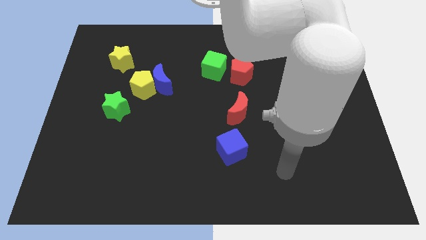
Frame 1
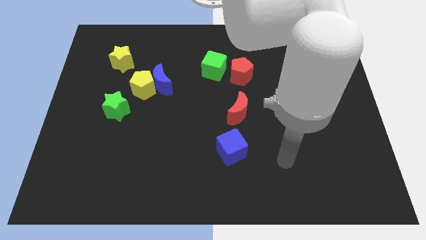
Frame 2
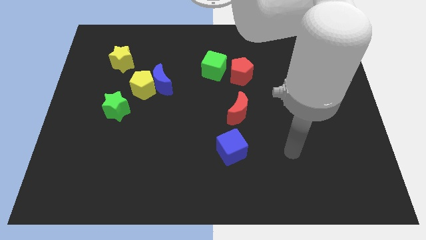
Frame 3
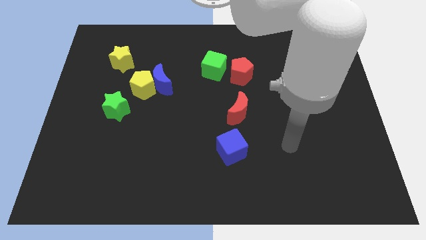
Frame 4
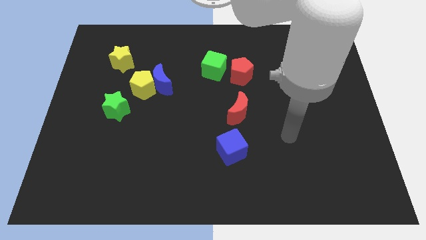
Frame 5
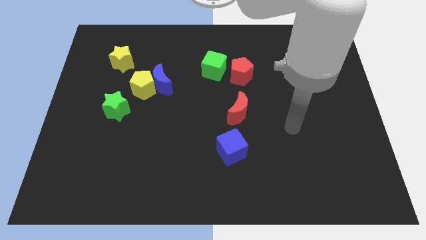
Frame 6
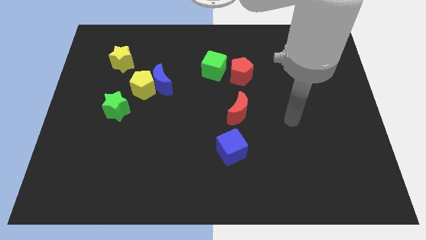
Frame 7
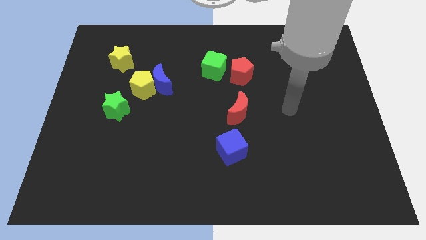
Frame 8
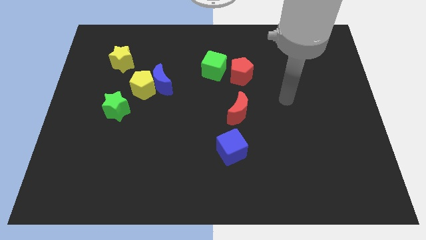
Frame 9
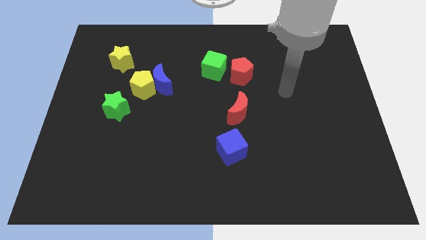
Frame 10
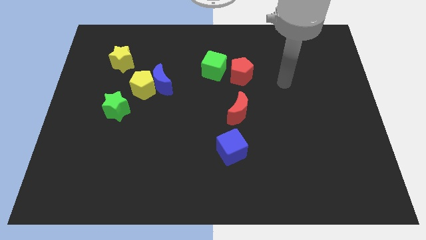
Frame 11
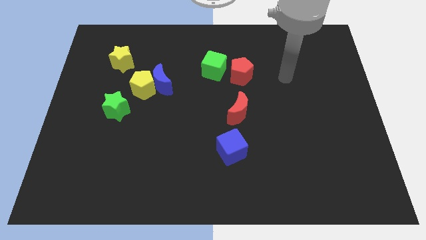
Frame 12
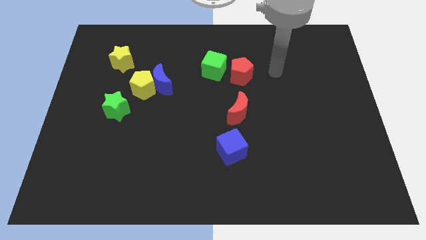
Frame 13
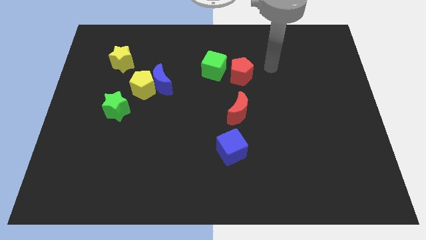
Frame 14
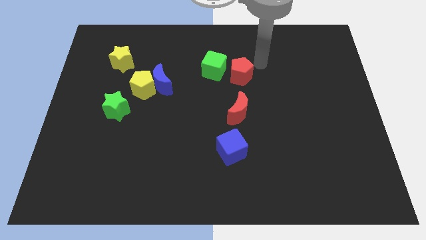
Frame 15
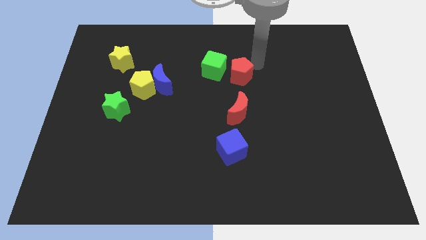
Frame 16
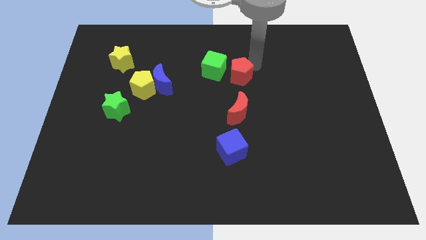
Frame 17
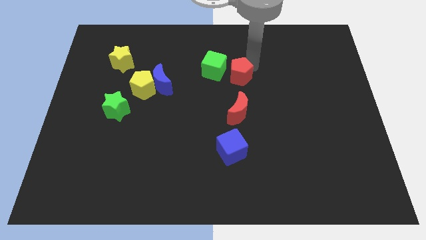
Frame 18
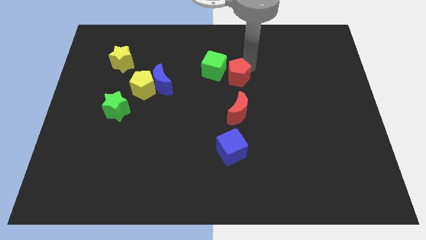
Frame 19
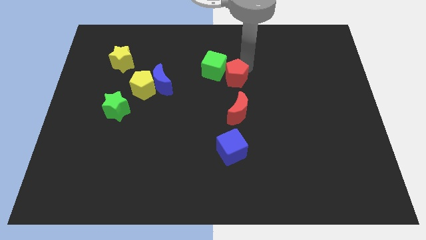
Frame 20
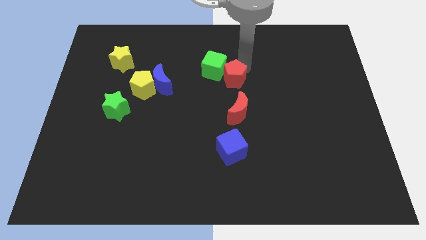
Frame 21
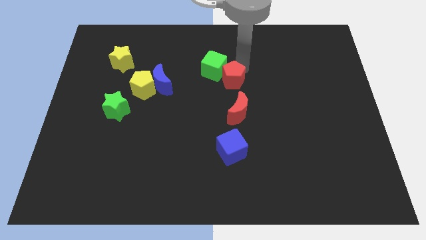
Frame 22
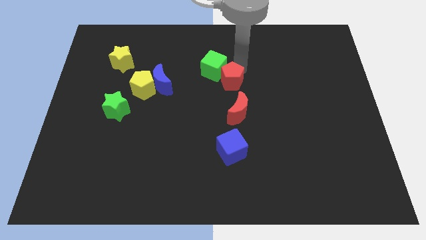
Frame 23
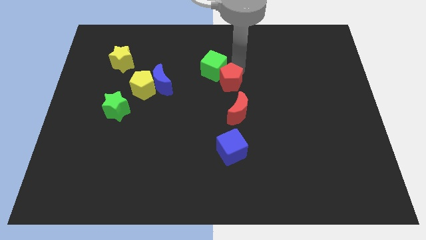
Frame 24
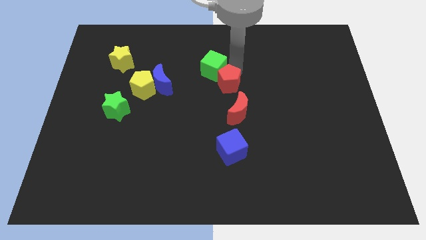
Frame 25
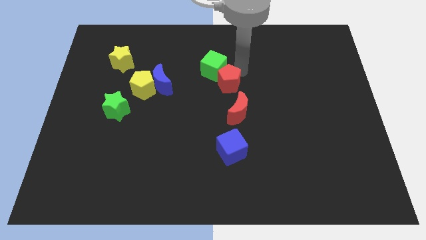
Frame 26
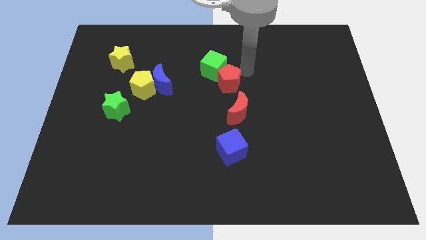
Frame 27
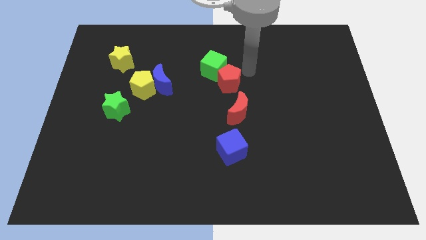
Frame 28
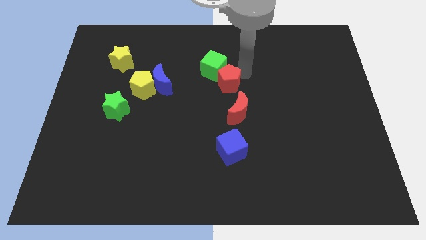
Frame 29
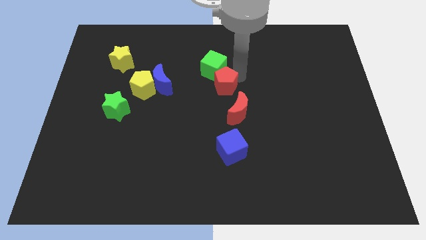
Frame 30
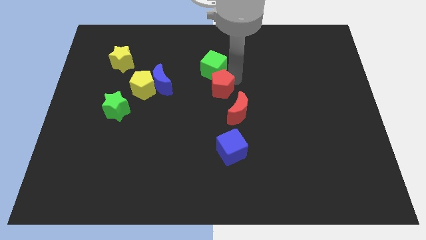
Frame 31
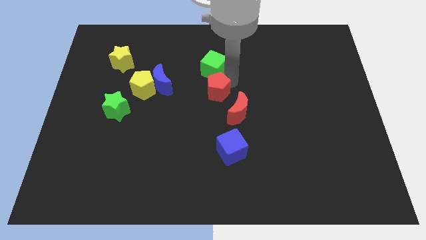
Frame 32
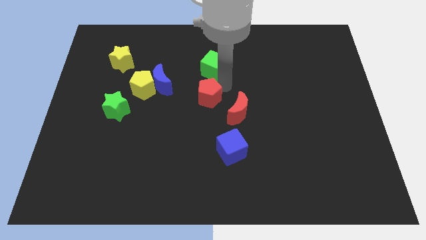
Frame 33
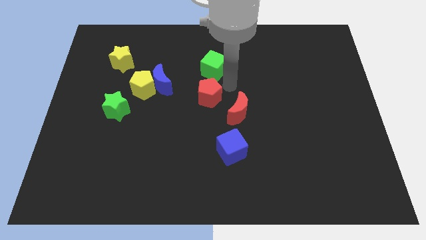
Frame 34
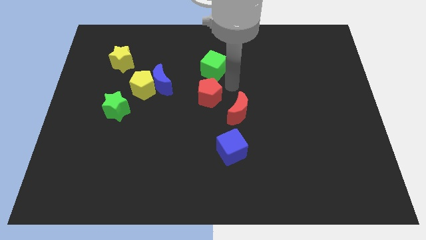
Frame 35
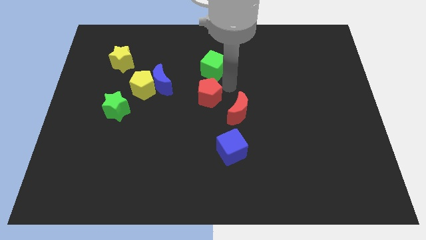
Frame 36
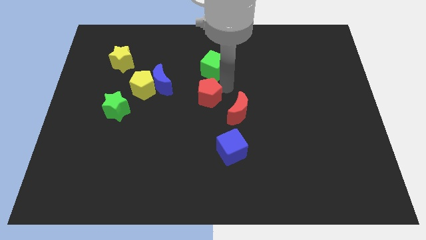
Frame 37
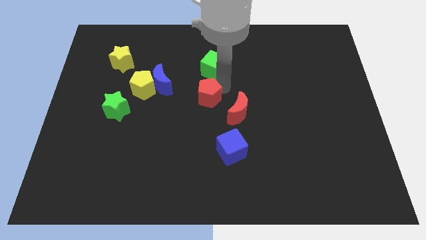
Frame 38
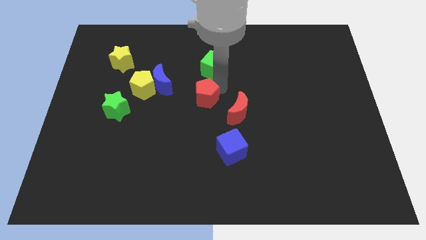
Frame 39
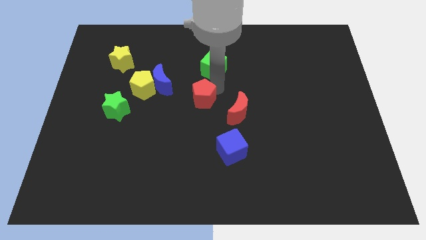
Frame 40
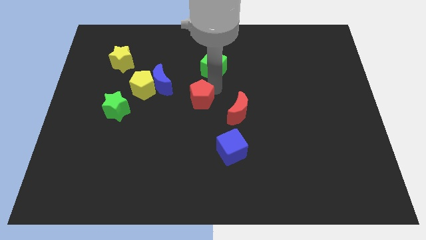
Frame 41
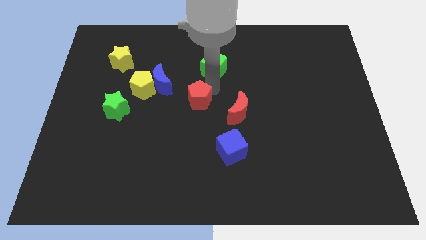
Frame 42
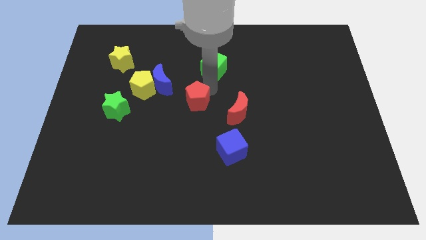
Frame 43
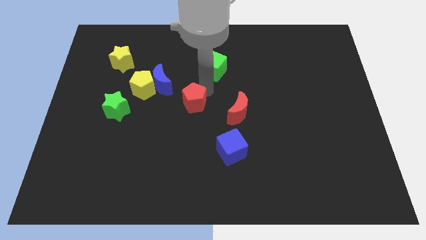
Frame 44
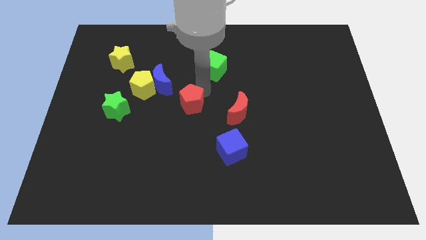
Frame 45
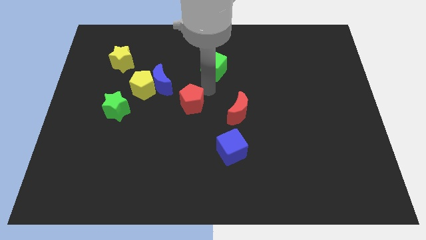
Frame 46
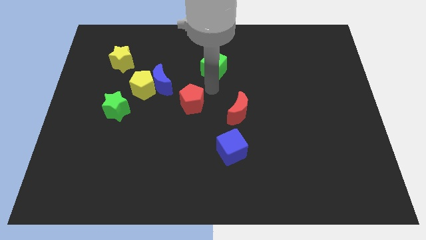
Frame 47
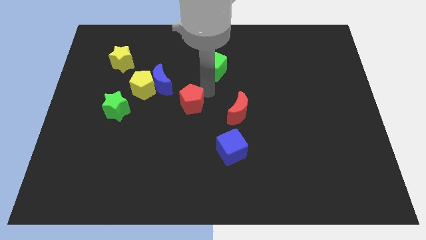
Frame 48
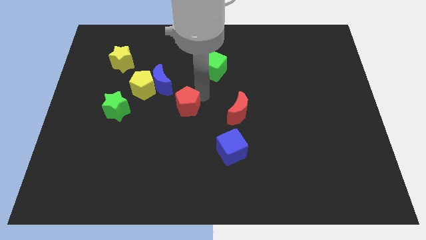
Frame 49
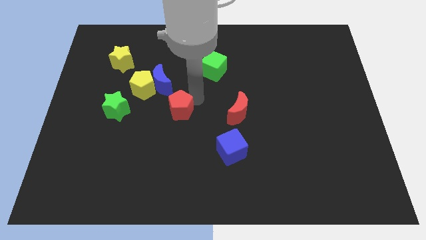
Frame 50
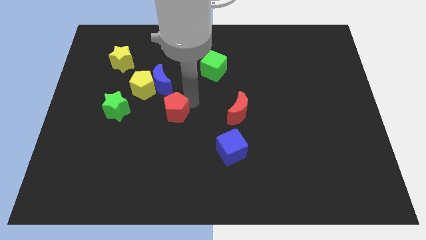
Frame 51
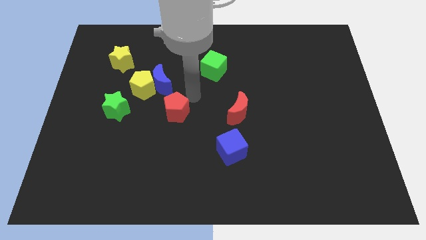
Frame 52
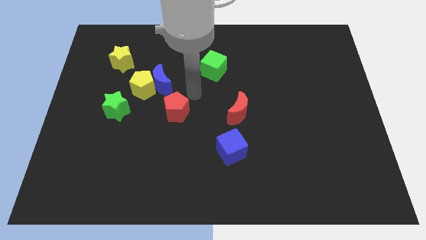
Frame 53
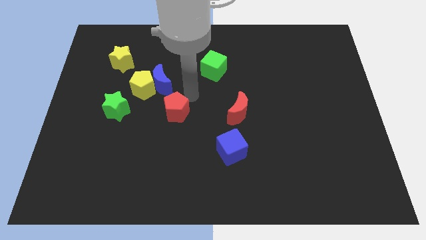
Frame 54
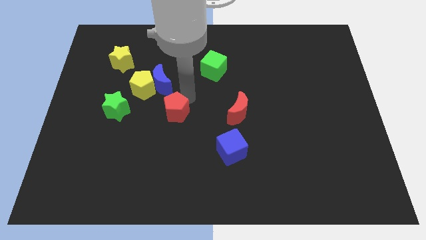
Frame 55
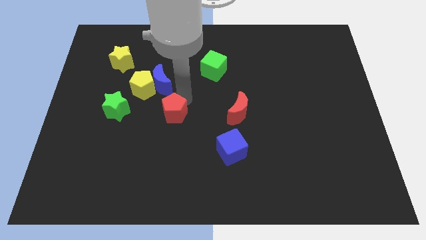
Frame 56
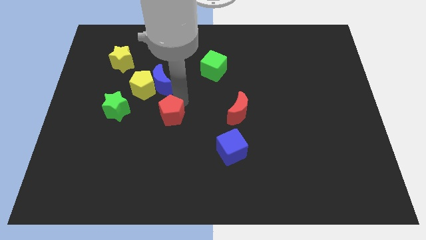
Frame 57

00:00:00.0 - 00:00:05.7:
push the red pentagon down and to the left diagonally

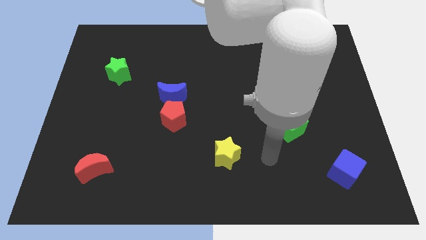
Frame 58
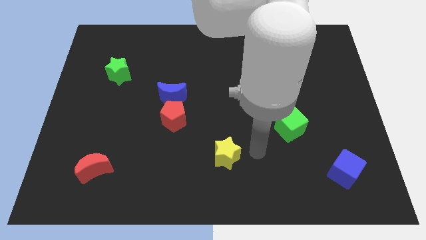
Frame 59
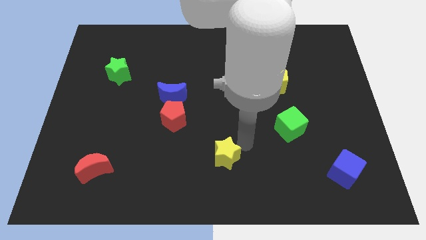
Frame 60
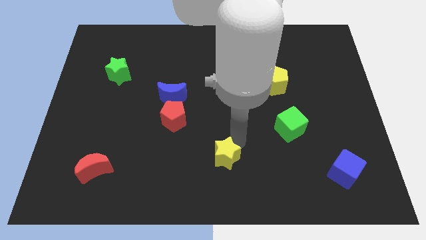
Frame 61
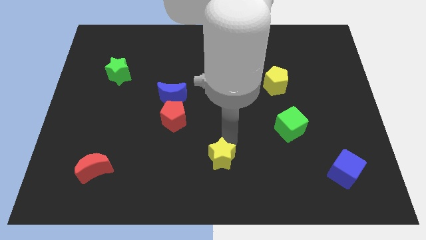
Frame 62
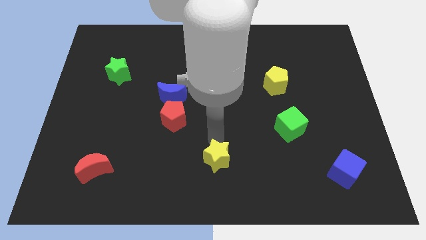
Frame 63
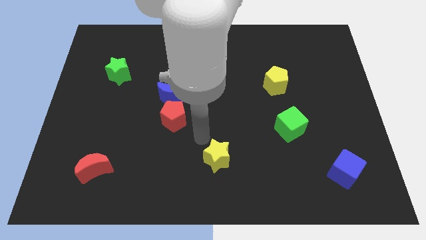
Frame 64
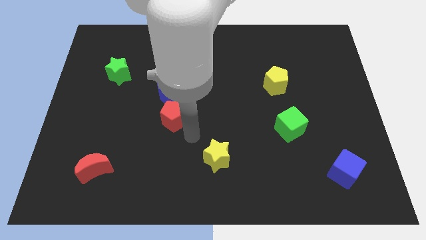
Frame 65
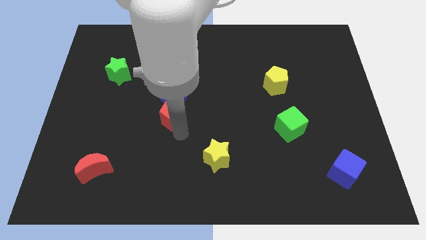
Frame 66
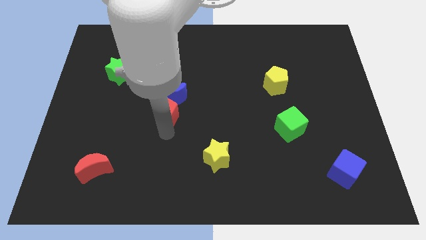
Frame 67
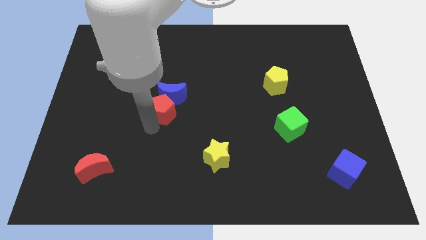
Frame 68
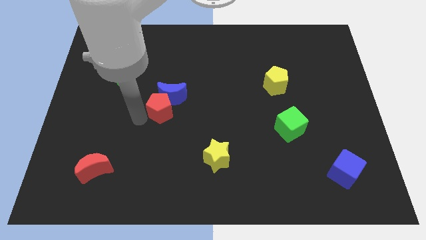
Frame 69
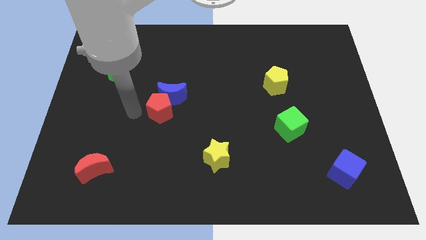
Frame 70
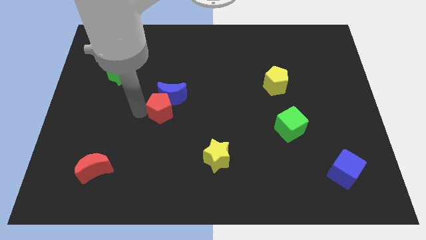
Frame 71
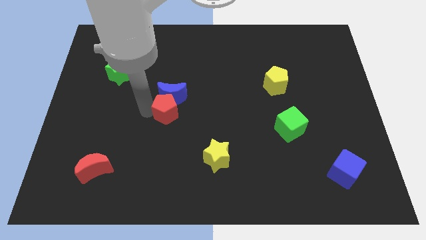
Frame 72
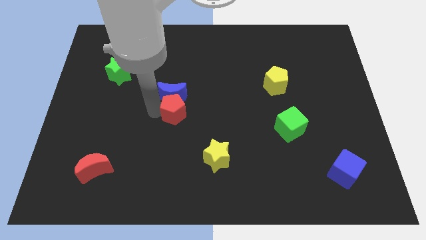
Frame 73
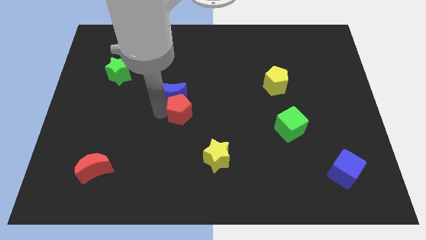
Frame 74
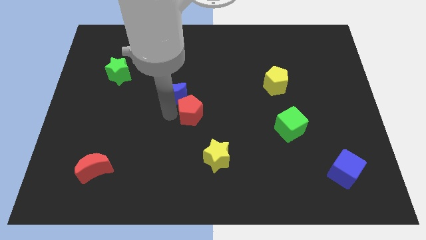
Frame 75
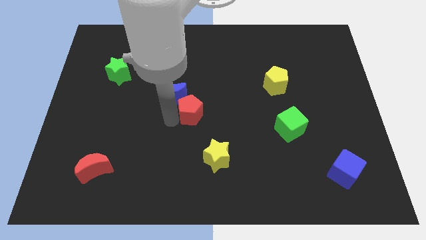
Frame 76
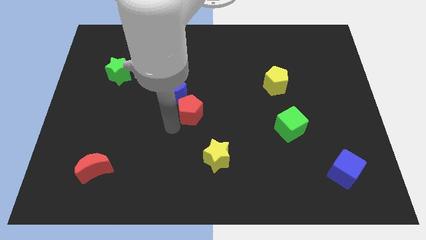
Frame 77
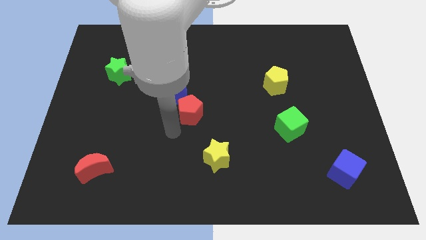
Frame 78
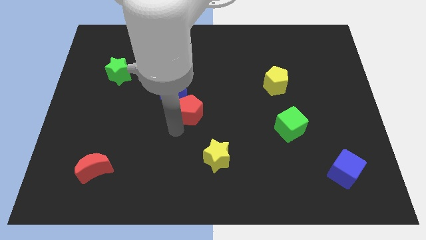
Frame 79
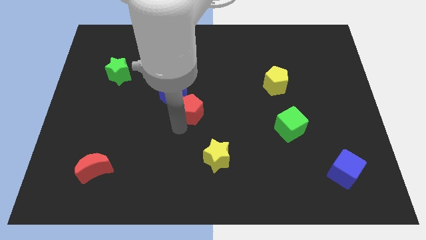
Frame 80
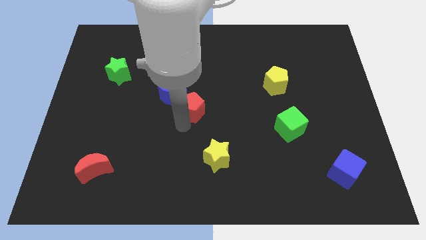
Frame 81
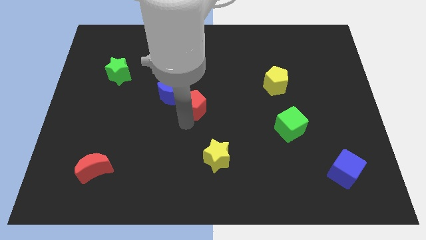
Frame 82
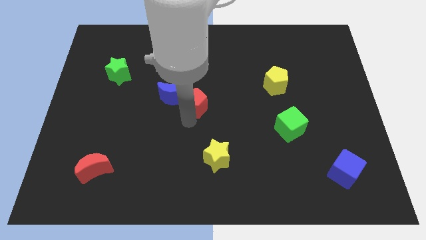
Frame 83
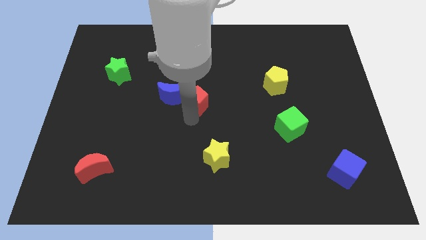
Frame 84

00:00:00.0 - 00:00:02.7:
move the red pentagon upwards and right a little

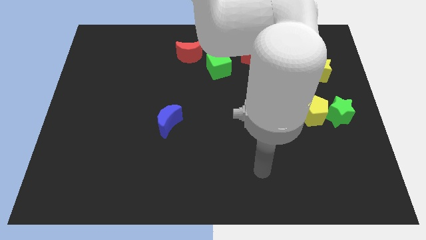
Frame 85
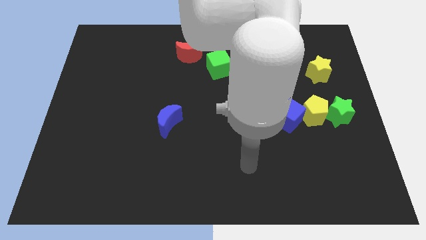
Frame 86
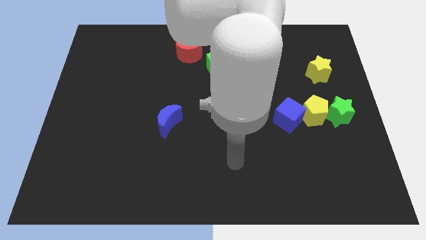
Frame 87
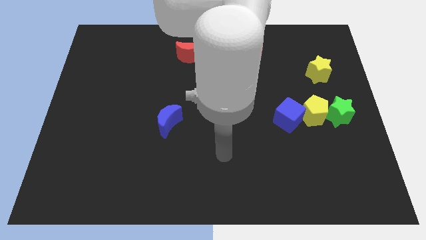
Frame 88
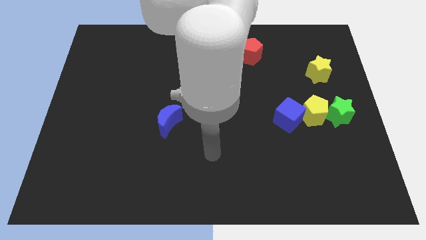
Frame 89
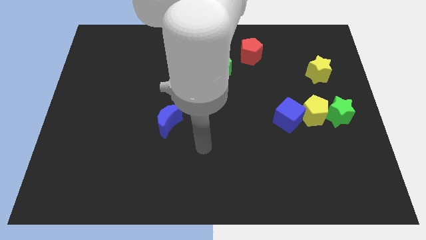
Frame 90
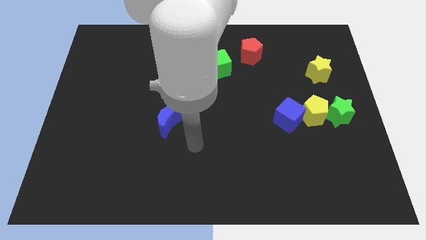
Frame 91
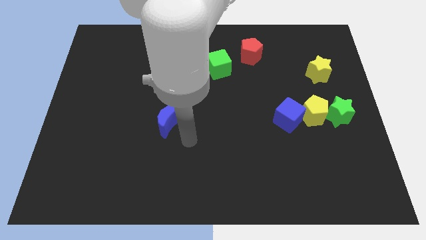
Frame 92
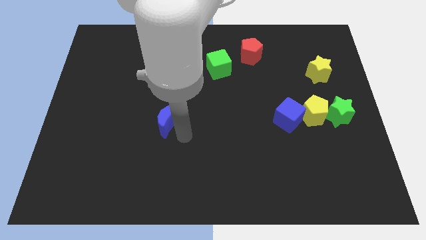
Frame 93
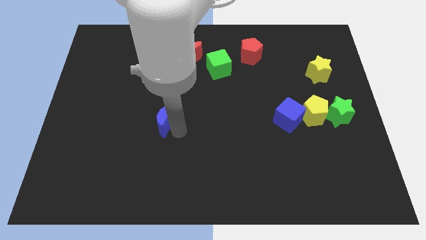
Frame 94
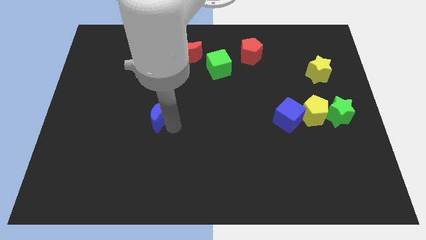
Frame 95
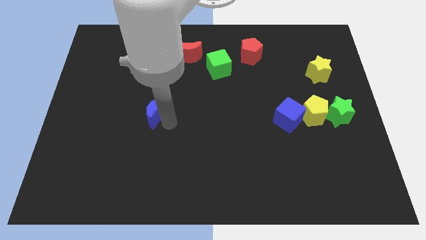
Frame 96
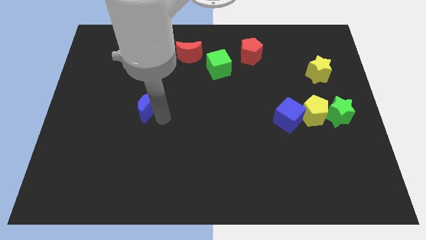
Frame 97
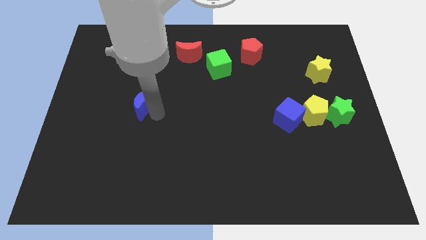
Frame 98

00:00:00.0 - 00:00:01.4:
move the blue moon upwards and to the left a little bit
